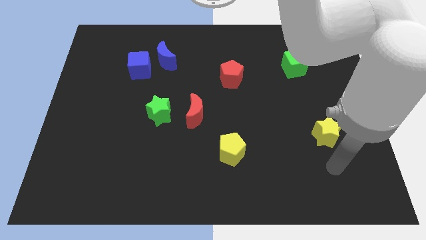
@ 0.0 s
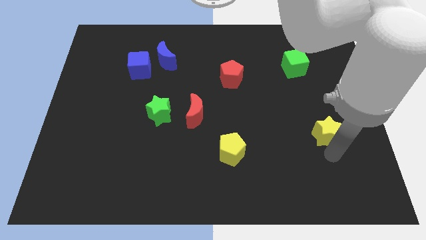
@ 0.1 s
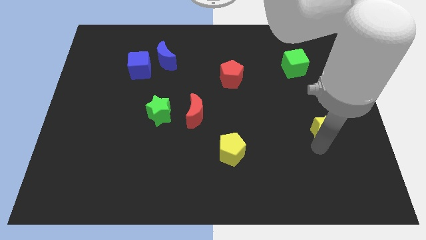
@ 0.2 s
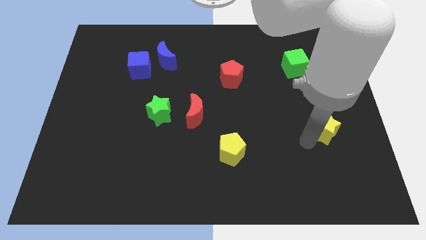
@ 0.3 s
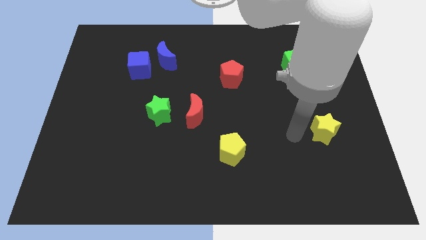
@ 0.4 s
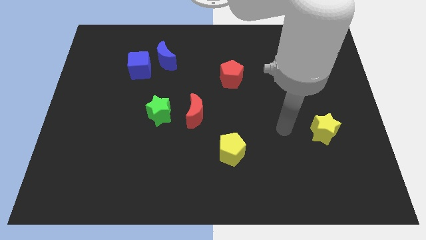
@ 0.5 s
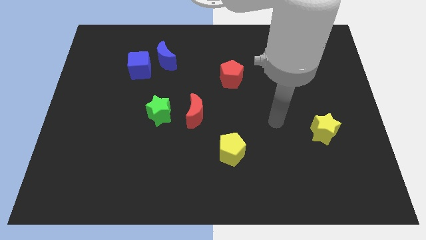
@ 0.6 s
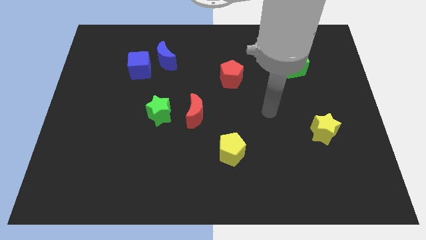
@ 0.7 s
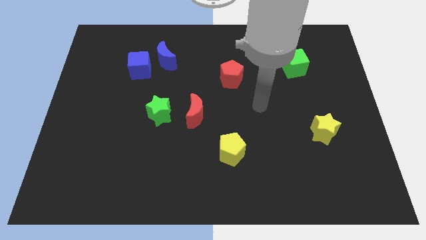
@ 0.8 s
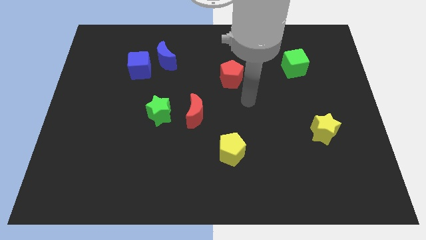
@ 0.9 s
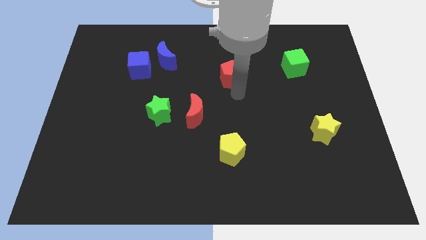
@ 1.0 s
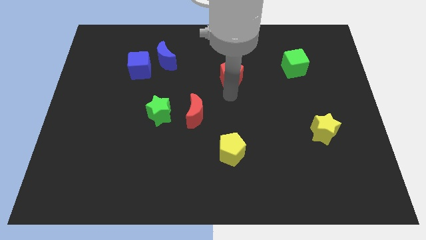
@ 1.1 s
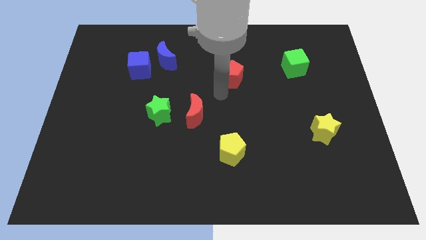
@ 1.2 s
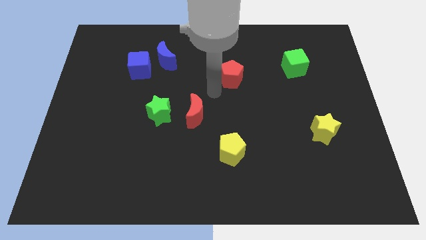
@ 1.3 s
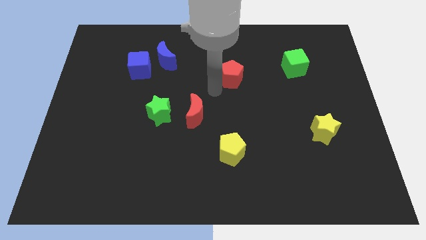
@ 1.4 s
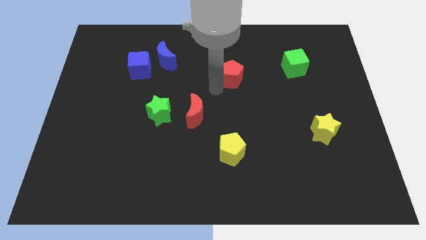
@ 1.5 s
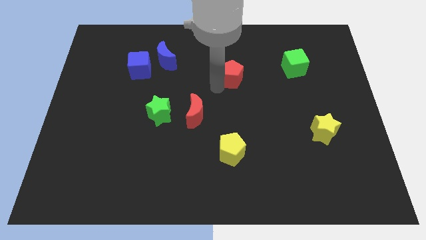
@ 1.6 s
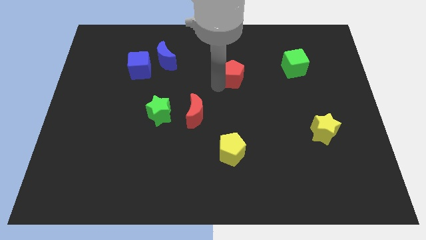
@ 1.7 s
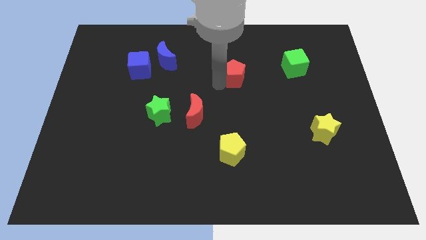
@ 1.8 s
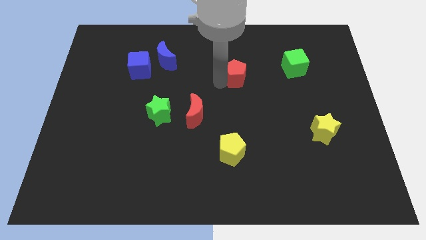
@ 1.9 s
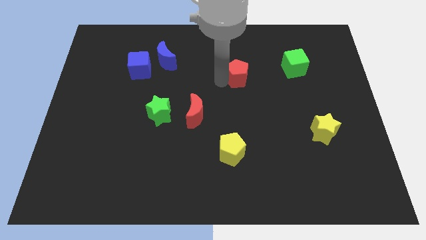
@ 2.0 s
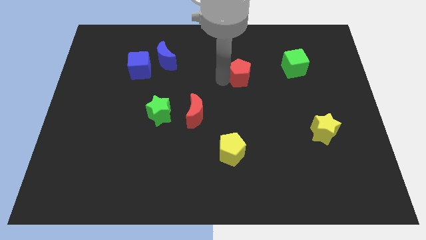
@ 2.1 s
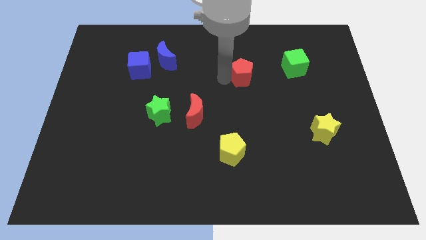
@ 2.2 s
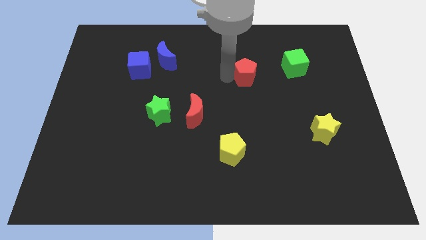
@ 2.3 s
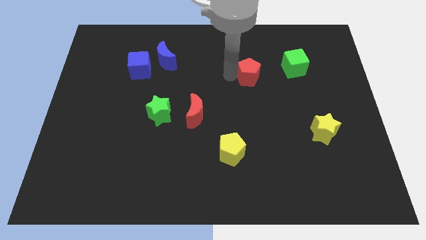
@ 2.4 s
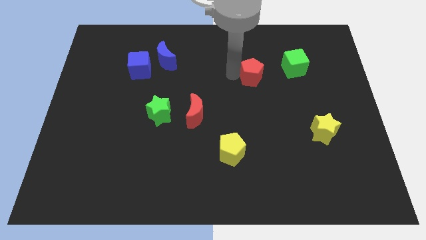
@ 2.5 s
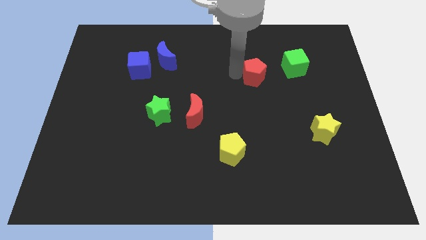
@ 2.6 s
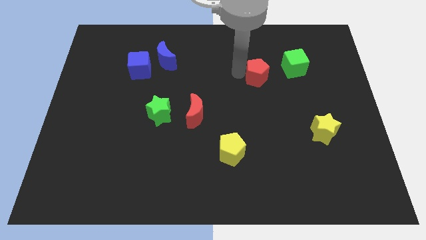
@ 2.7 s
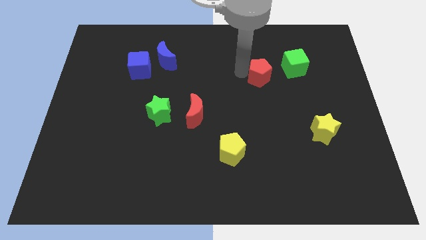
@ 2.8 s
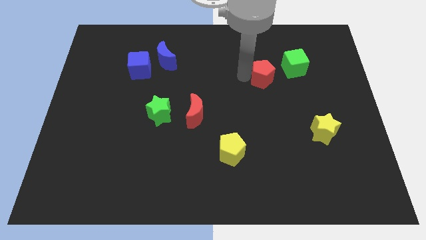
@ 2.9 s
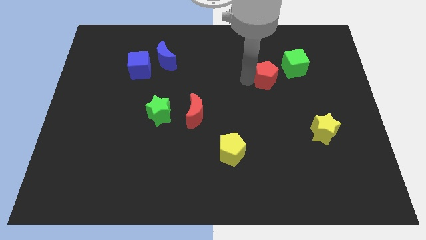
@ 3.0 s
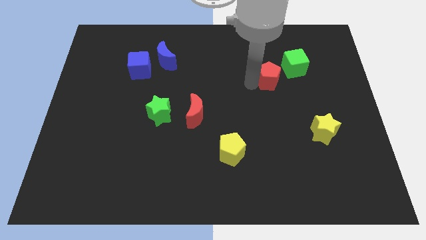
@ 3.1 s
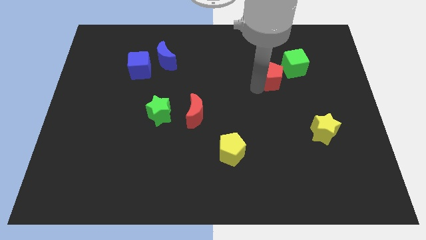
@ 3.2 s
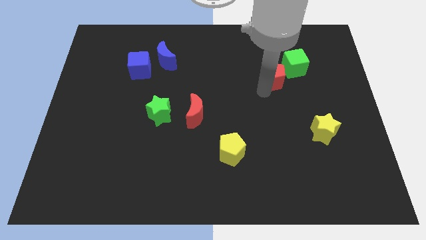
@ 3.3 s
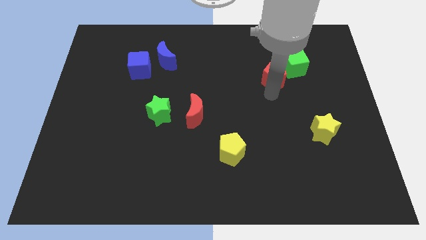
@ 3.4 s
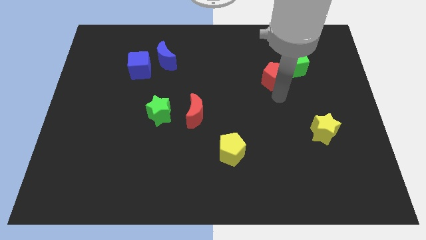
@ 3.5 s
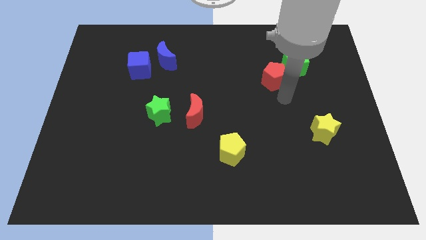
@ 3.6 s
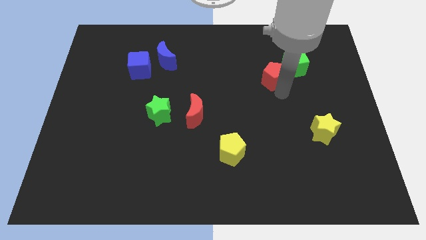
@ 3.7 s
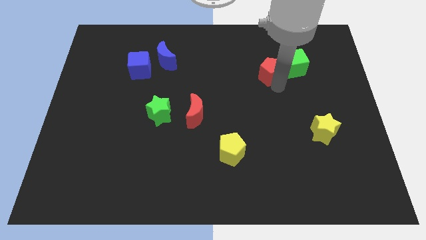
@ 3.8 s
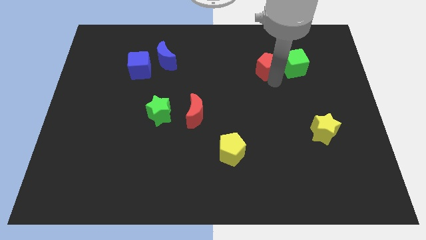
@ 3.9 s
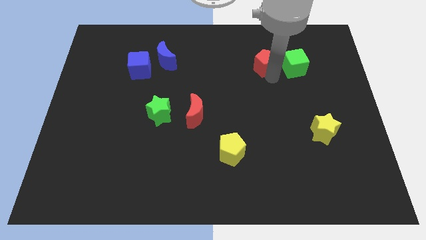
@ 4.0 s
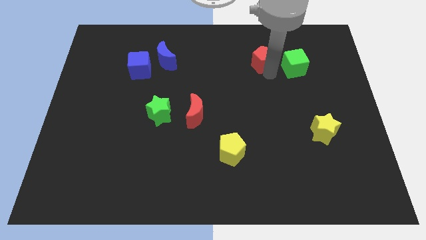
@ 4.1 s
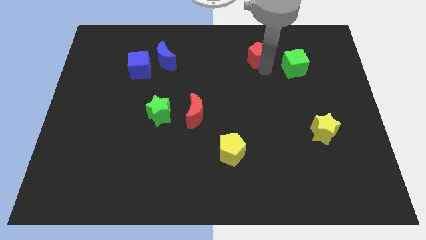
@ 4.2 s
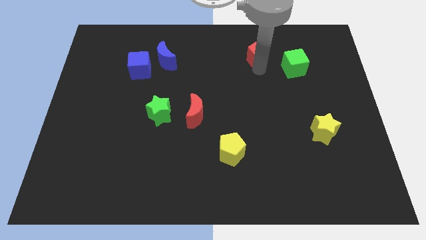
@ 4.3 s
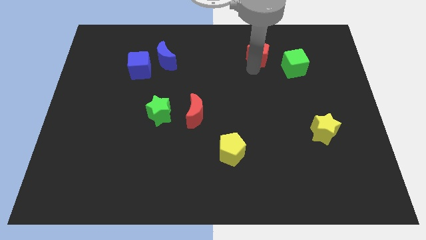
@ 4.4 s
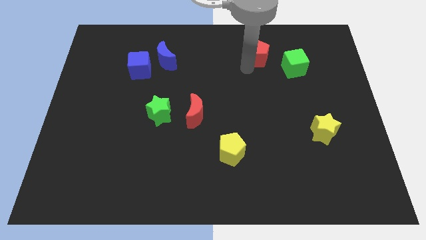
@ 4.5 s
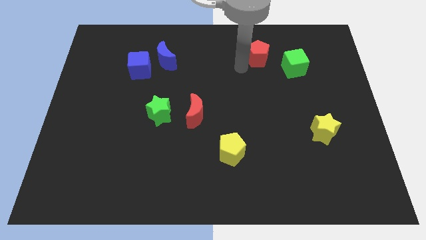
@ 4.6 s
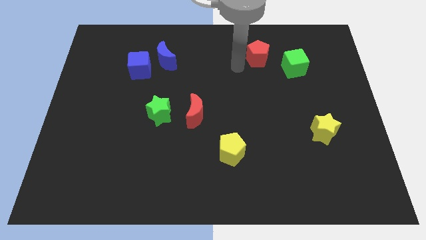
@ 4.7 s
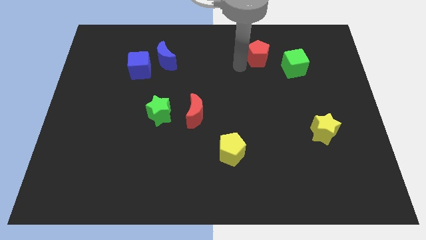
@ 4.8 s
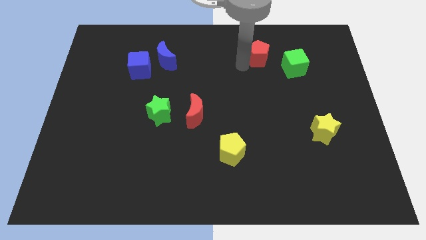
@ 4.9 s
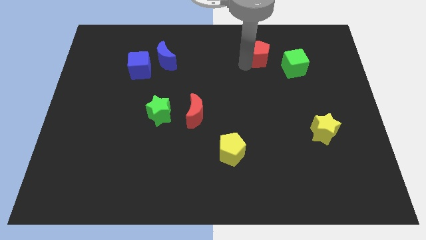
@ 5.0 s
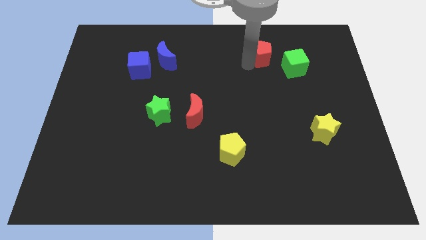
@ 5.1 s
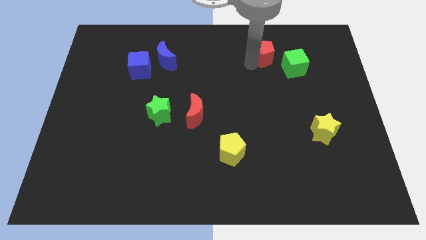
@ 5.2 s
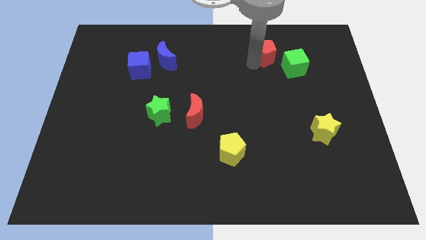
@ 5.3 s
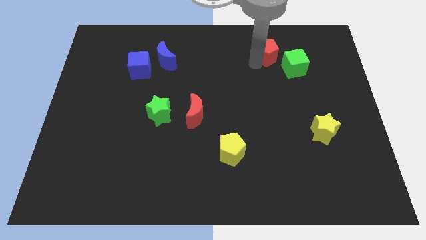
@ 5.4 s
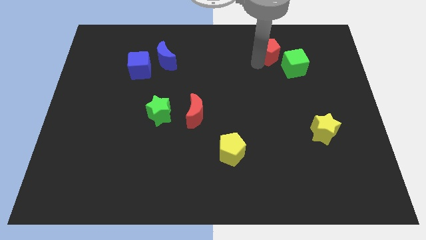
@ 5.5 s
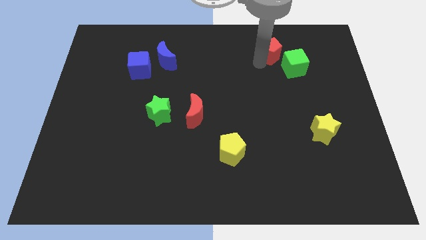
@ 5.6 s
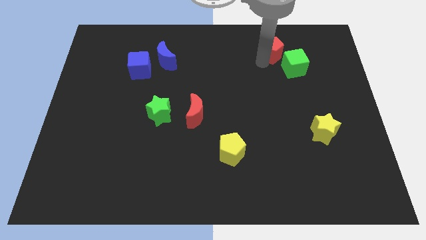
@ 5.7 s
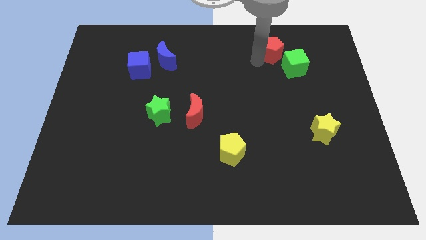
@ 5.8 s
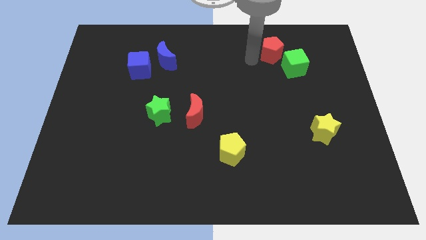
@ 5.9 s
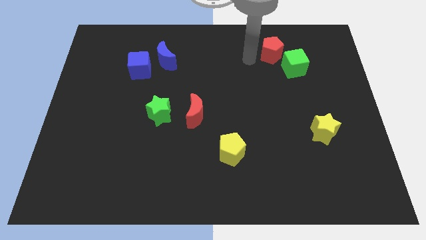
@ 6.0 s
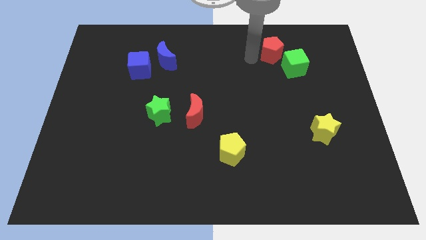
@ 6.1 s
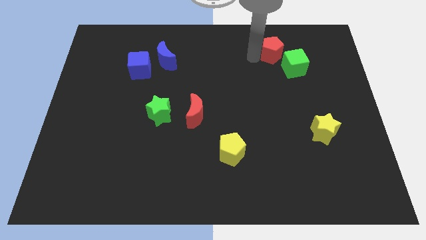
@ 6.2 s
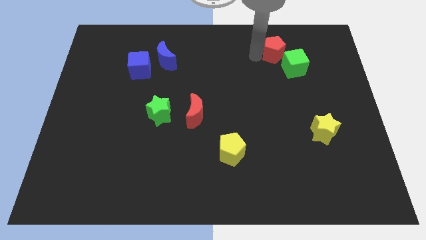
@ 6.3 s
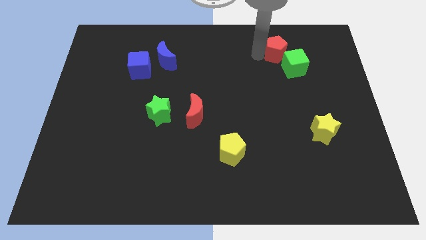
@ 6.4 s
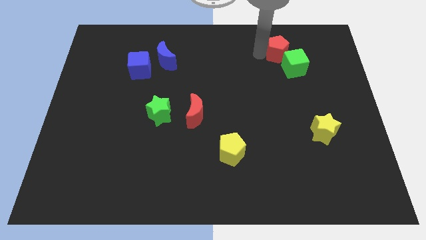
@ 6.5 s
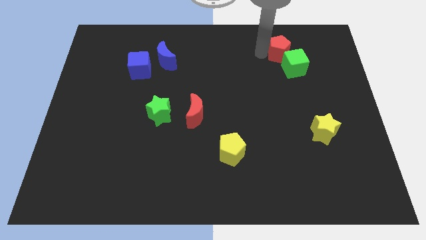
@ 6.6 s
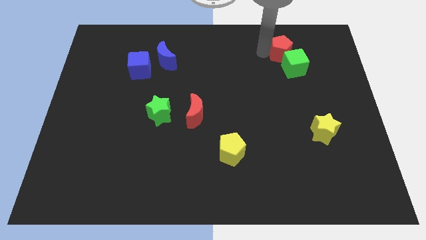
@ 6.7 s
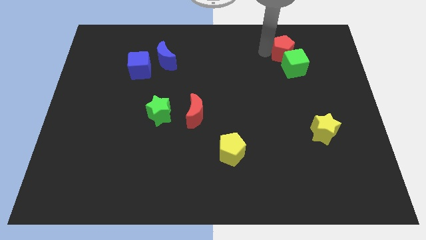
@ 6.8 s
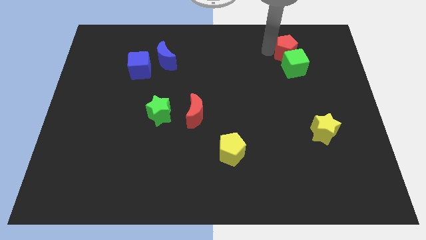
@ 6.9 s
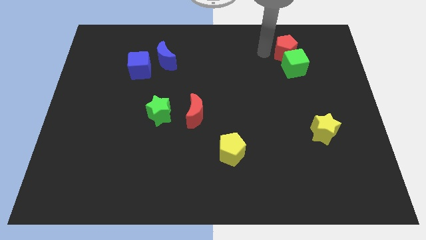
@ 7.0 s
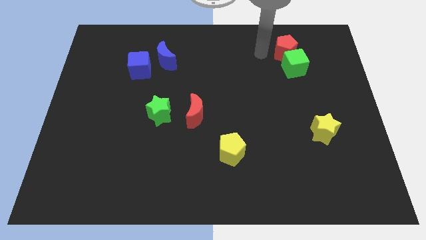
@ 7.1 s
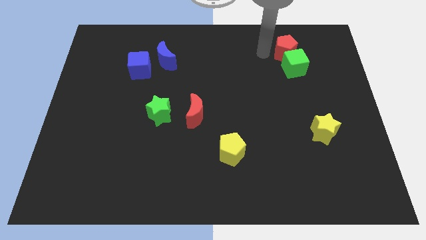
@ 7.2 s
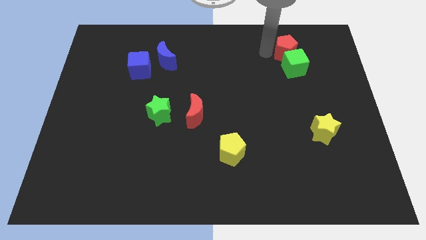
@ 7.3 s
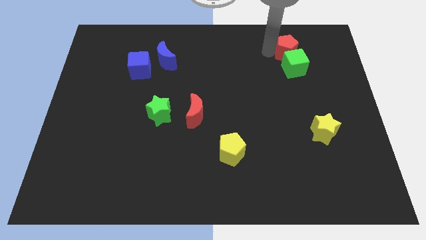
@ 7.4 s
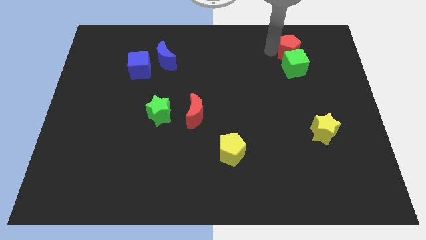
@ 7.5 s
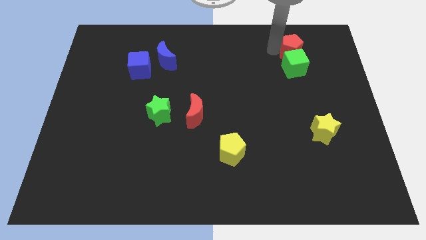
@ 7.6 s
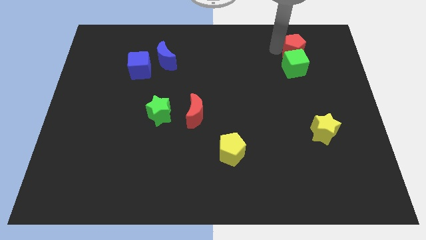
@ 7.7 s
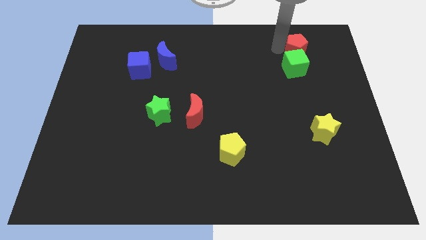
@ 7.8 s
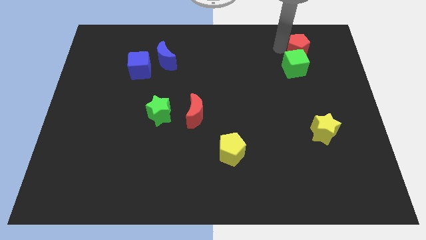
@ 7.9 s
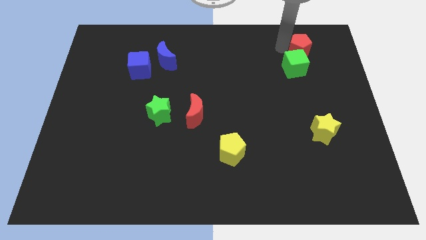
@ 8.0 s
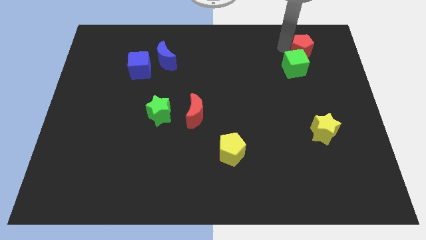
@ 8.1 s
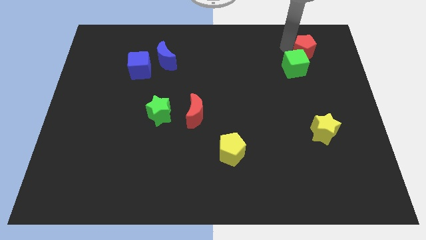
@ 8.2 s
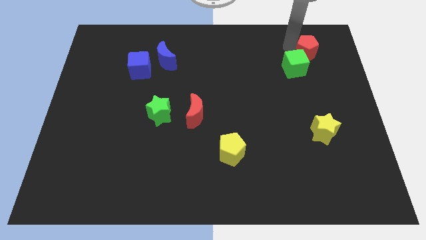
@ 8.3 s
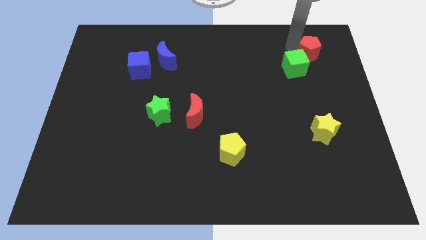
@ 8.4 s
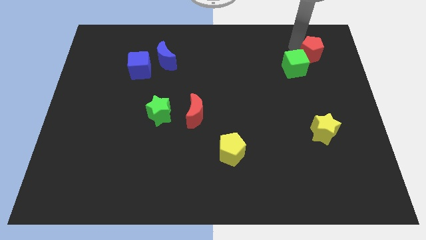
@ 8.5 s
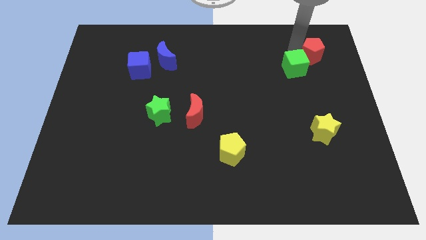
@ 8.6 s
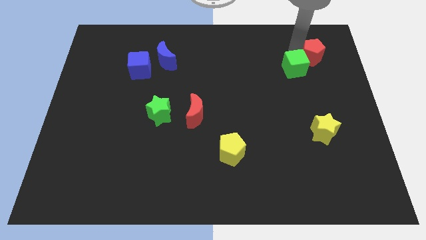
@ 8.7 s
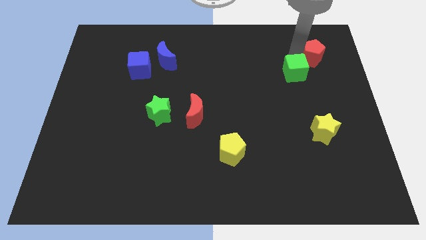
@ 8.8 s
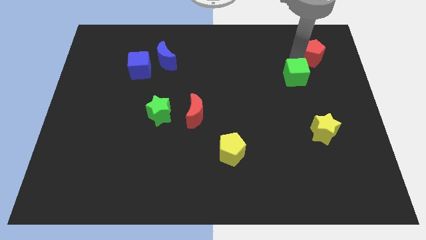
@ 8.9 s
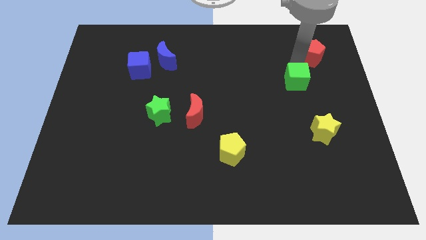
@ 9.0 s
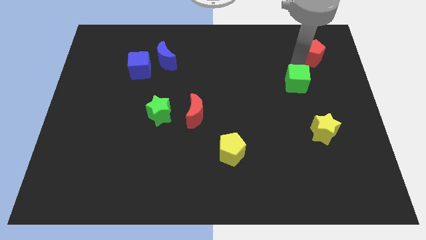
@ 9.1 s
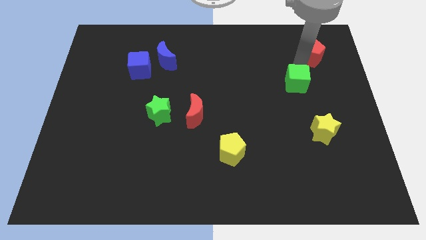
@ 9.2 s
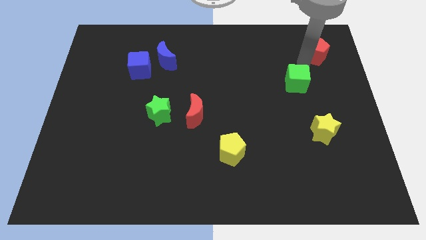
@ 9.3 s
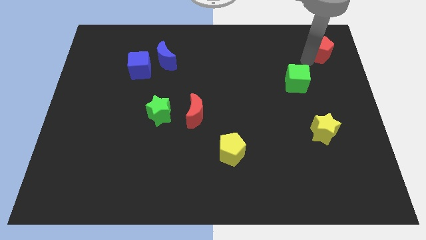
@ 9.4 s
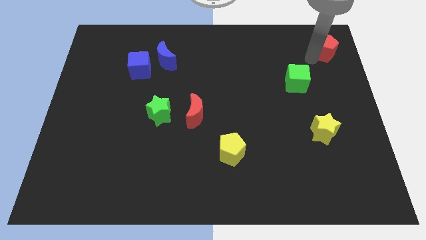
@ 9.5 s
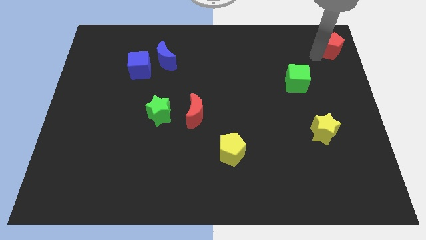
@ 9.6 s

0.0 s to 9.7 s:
put the red pentagon to the top right
